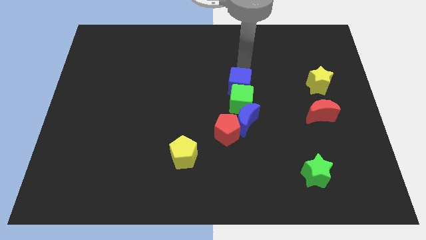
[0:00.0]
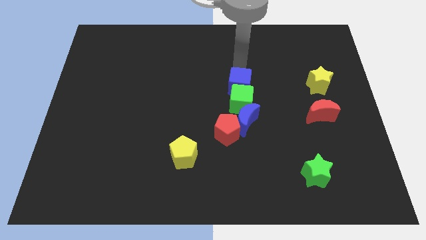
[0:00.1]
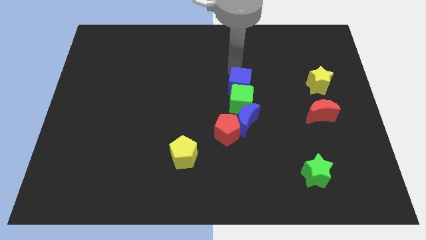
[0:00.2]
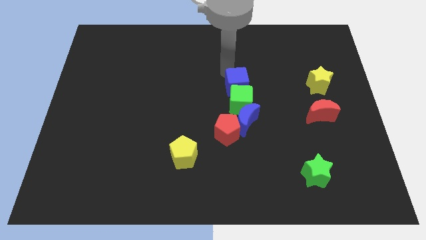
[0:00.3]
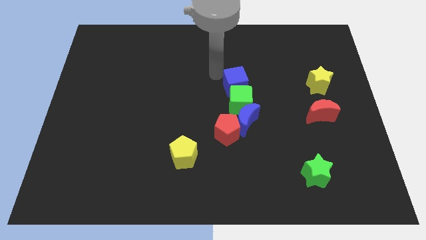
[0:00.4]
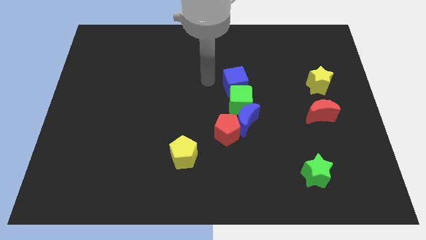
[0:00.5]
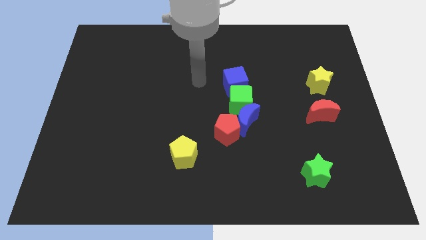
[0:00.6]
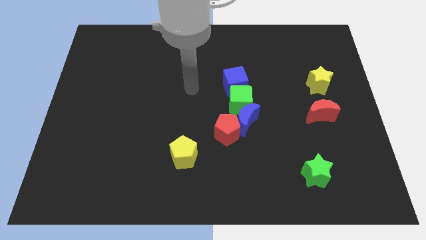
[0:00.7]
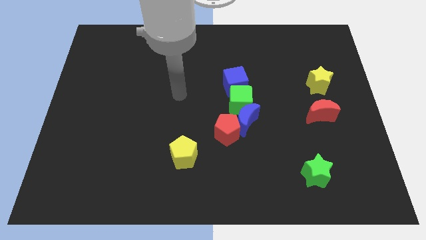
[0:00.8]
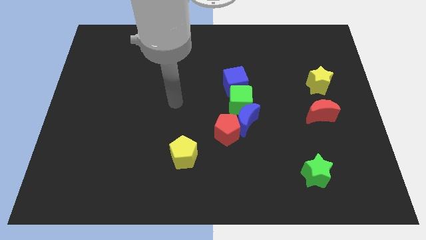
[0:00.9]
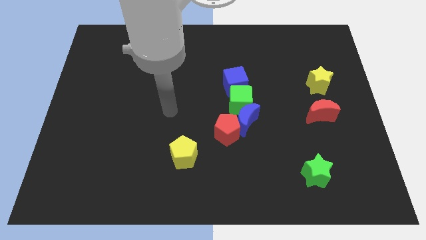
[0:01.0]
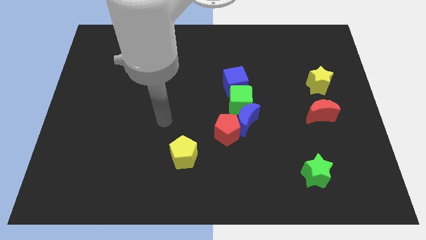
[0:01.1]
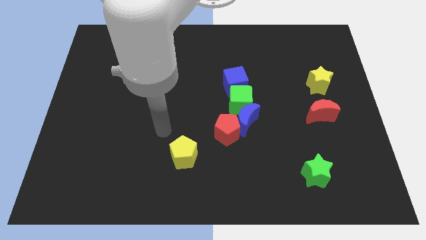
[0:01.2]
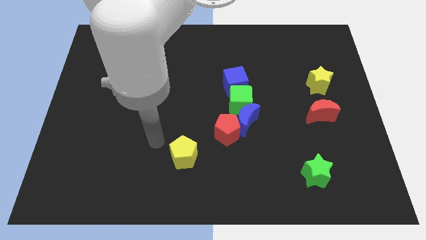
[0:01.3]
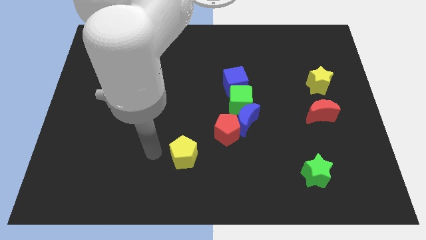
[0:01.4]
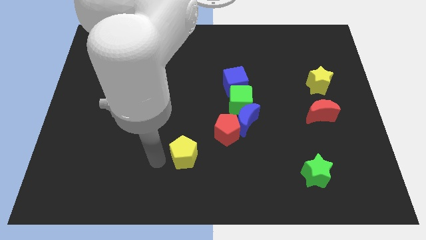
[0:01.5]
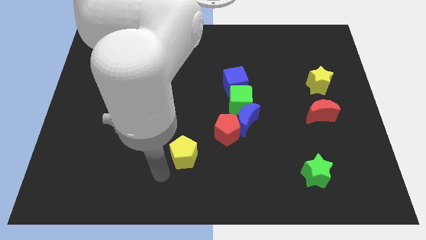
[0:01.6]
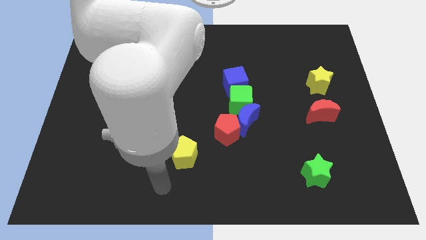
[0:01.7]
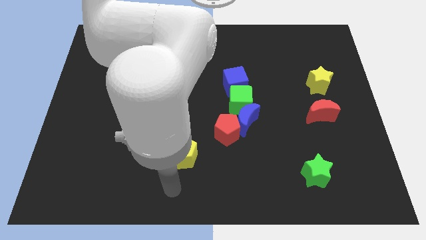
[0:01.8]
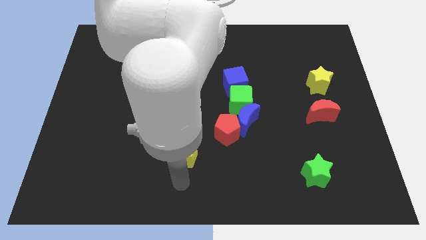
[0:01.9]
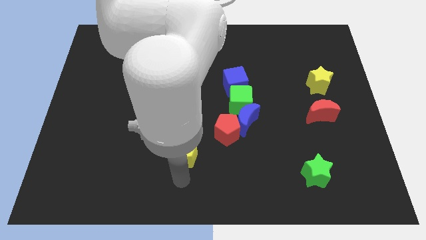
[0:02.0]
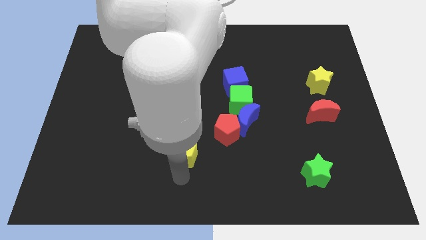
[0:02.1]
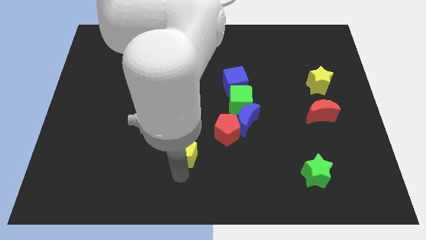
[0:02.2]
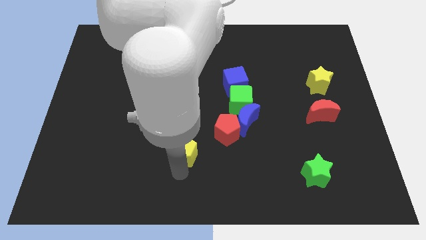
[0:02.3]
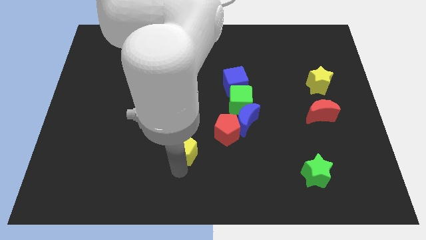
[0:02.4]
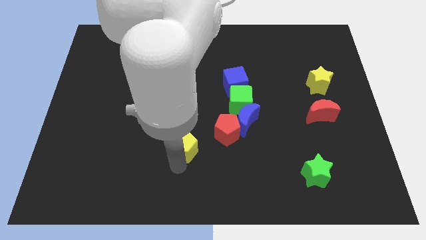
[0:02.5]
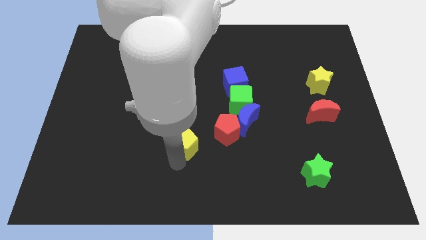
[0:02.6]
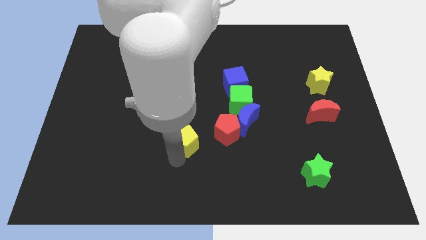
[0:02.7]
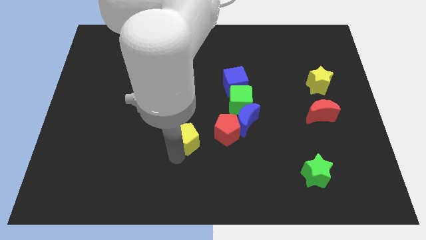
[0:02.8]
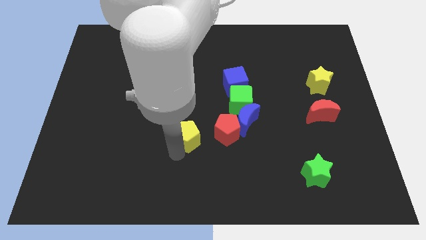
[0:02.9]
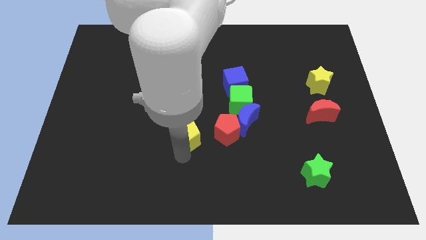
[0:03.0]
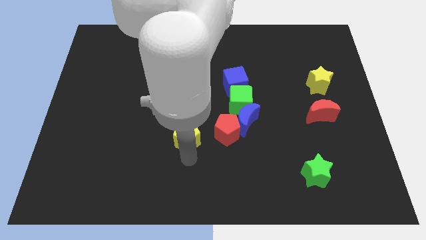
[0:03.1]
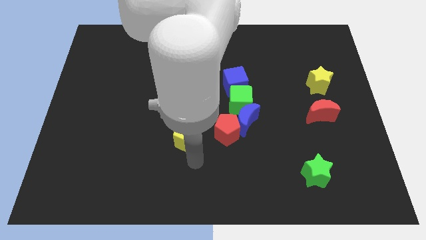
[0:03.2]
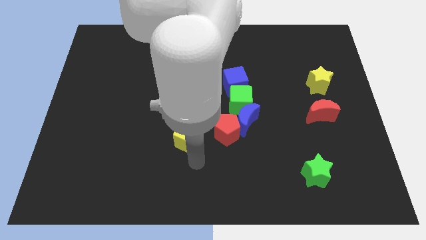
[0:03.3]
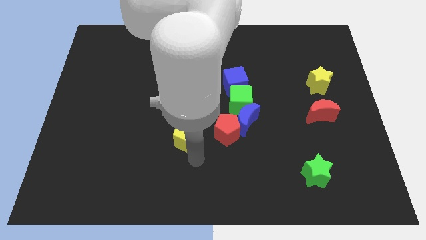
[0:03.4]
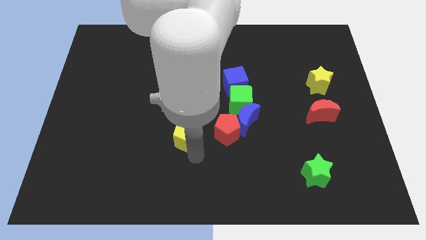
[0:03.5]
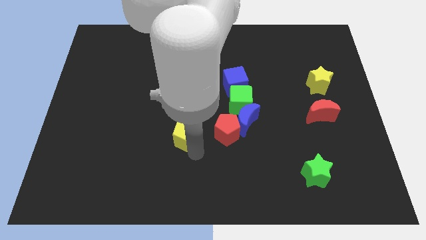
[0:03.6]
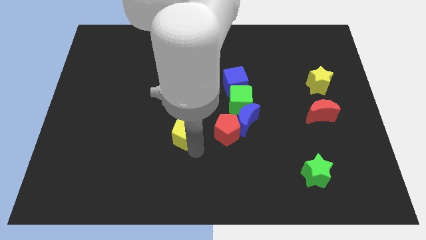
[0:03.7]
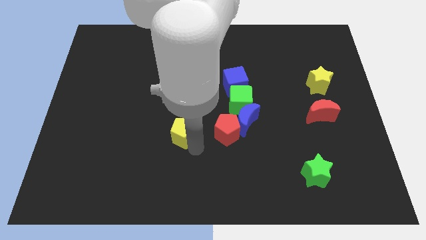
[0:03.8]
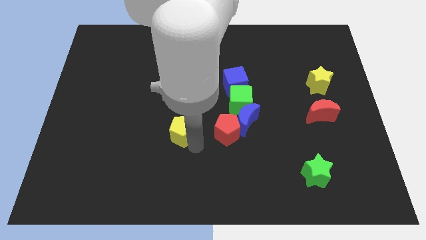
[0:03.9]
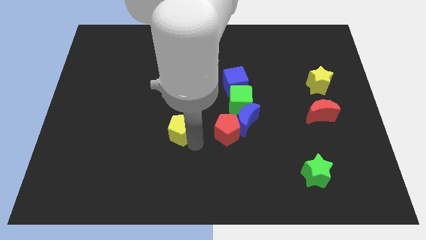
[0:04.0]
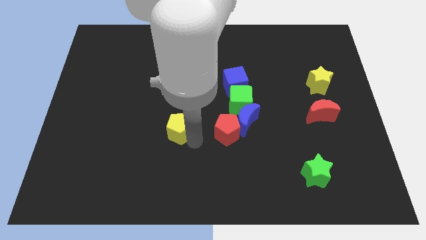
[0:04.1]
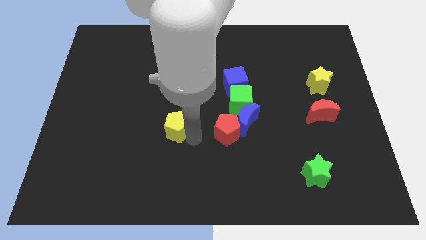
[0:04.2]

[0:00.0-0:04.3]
slightly slide the yellow pentagon upwards

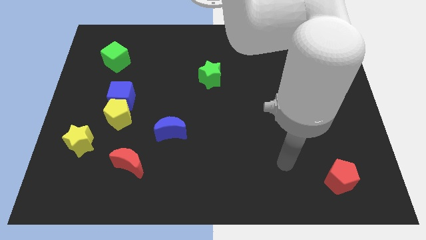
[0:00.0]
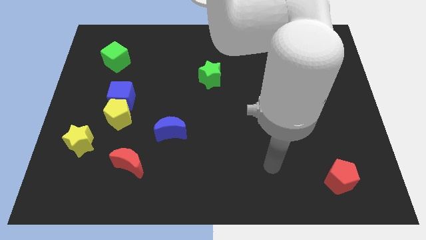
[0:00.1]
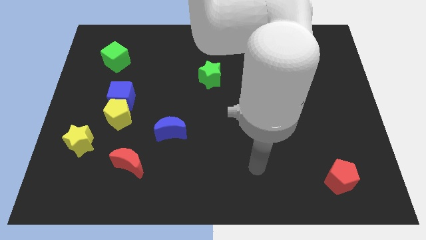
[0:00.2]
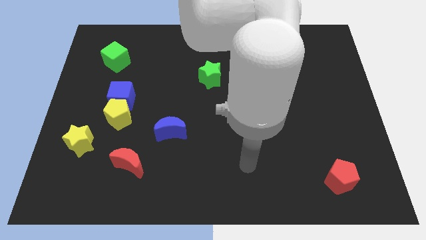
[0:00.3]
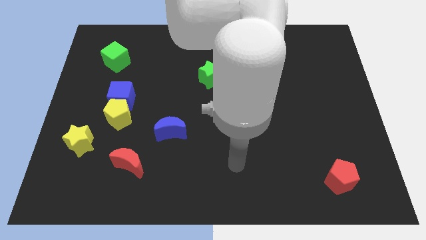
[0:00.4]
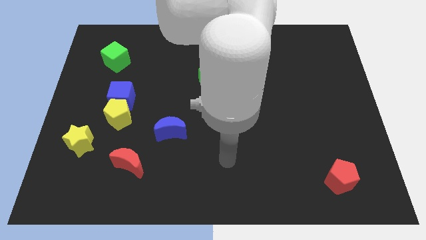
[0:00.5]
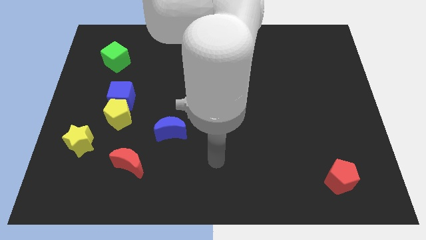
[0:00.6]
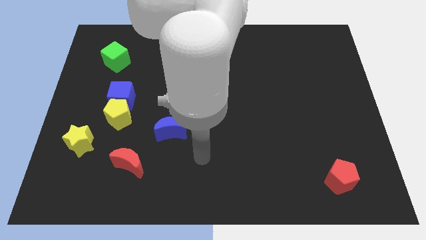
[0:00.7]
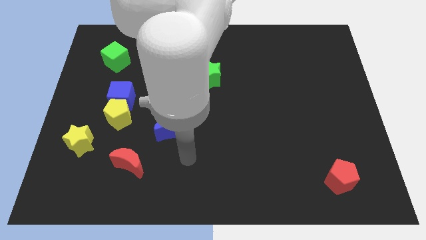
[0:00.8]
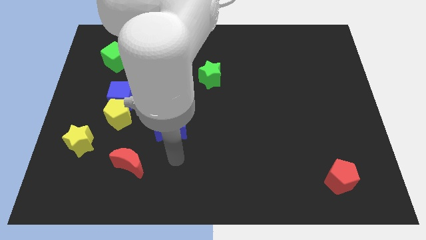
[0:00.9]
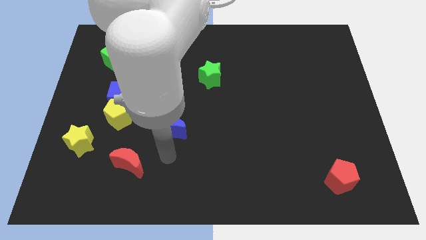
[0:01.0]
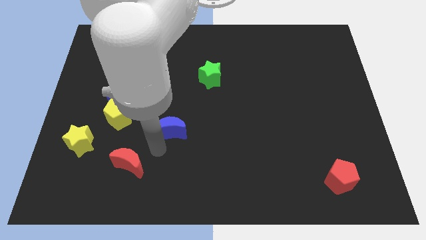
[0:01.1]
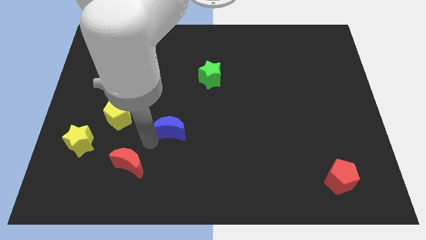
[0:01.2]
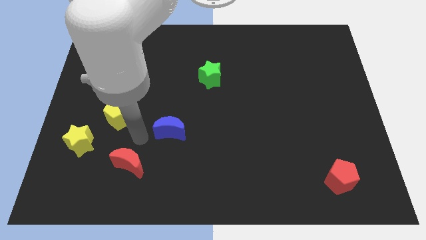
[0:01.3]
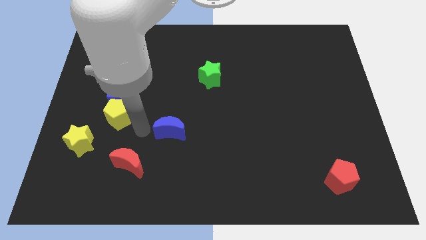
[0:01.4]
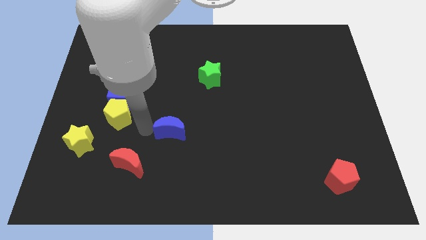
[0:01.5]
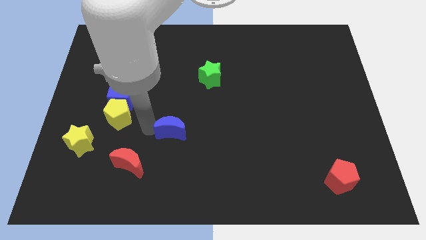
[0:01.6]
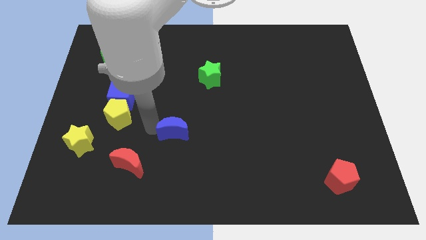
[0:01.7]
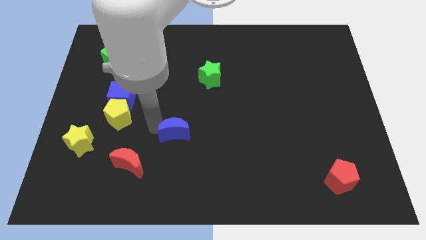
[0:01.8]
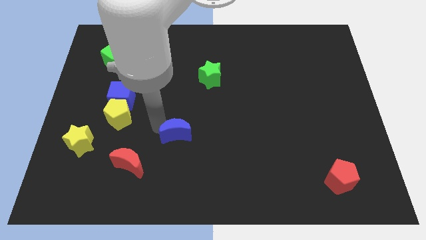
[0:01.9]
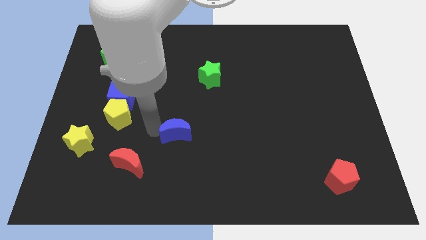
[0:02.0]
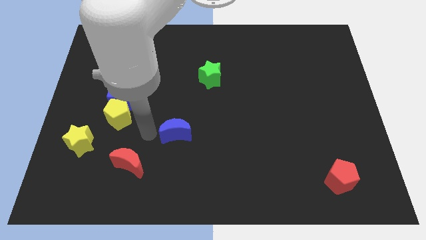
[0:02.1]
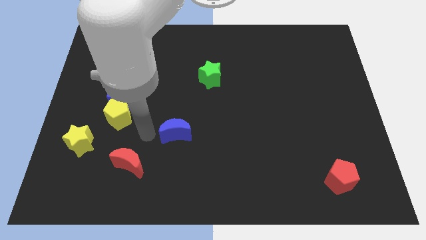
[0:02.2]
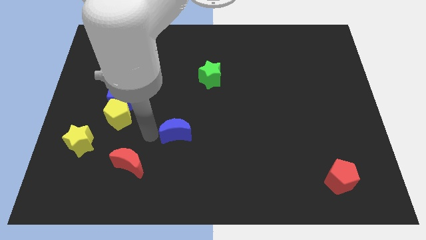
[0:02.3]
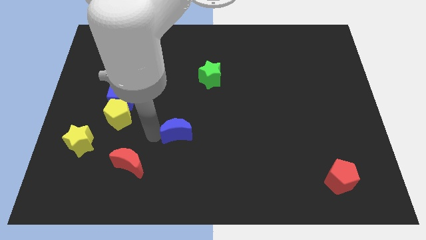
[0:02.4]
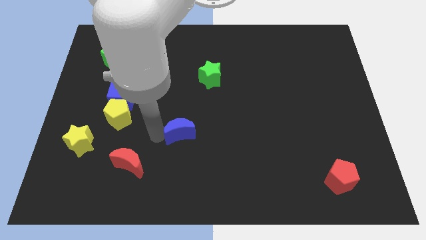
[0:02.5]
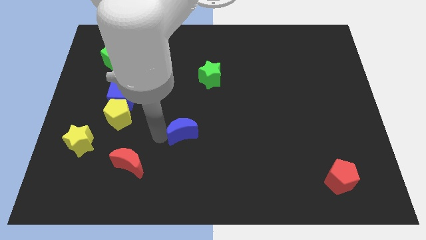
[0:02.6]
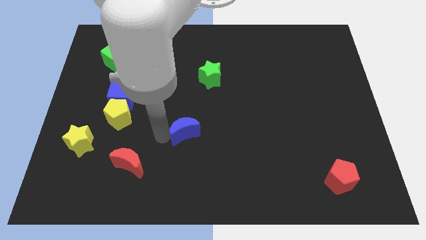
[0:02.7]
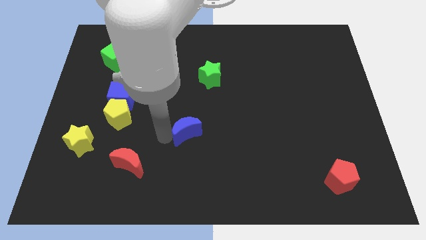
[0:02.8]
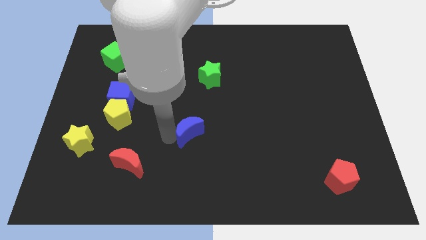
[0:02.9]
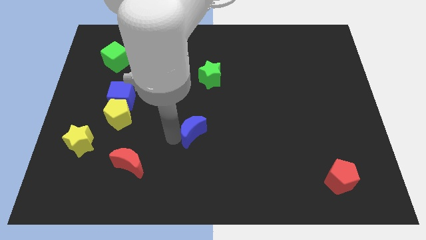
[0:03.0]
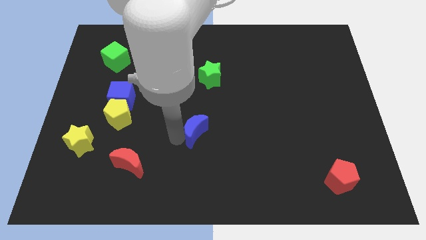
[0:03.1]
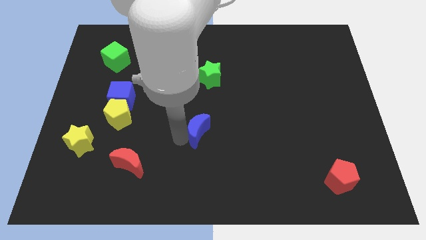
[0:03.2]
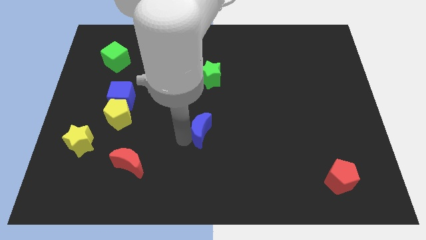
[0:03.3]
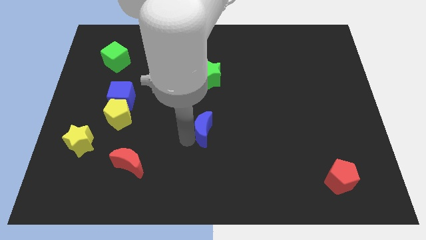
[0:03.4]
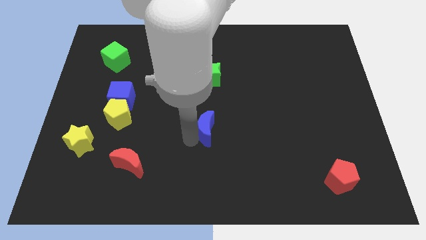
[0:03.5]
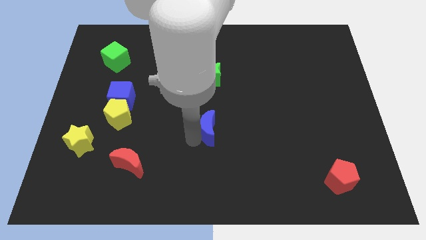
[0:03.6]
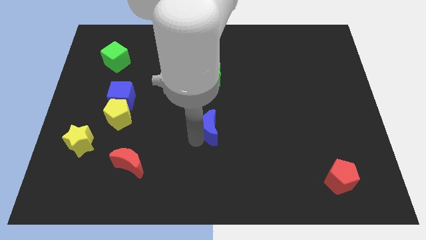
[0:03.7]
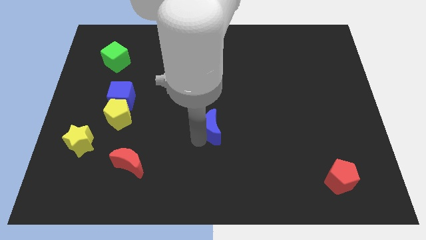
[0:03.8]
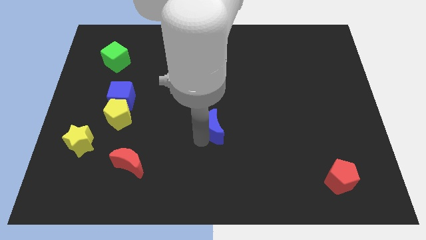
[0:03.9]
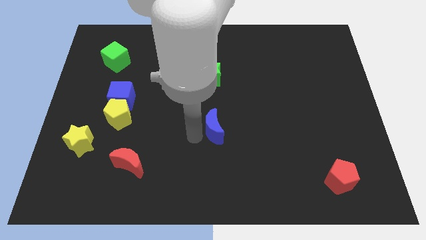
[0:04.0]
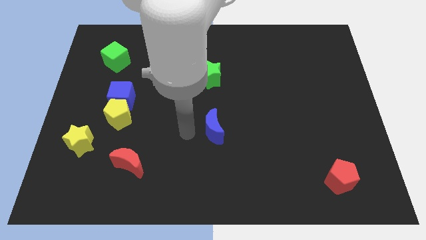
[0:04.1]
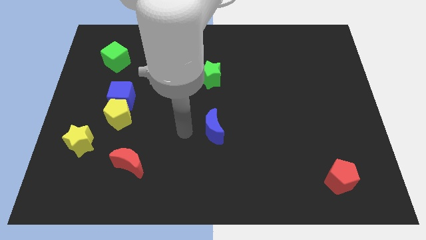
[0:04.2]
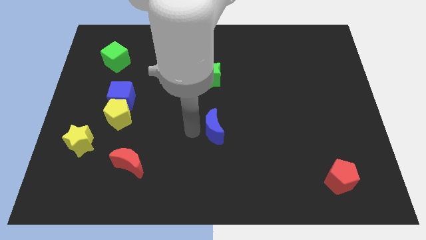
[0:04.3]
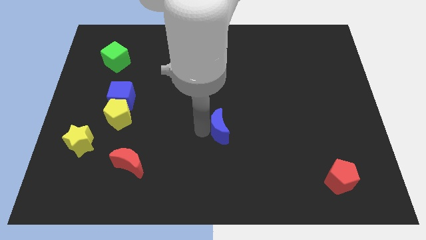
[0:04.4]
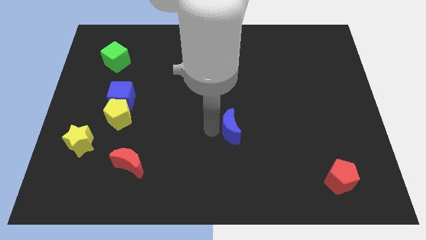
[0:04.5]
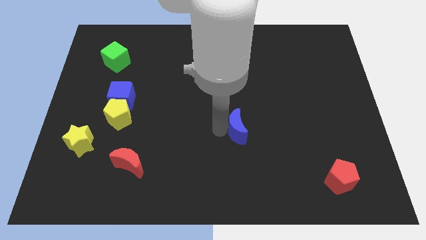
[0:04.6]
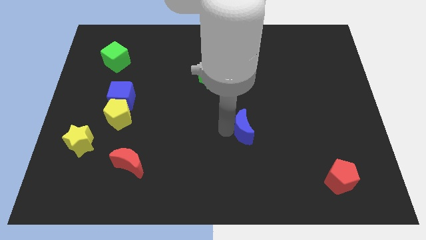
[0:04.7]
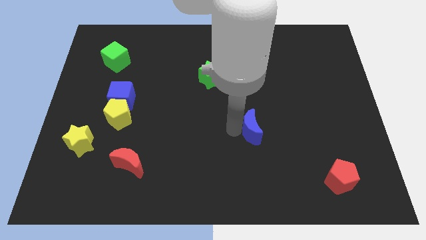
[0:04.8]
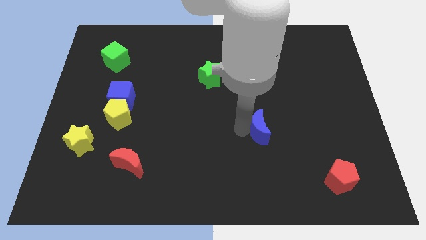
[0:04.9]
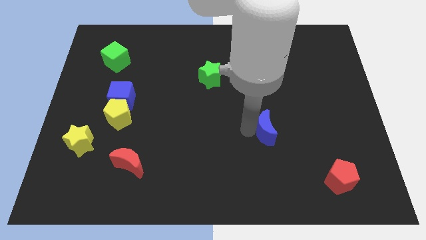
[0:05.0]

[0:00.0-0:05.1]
push the blue moon to the right
